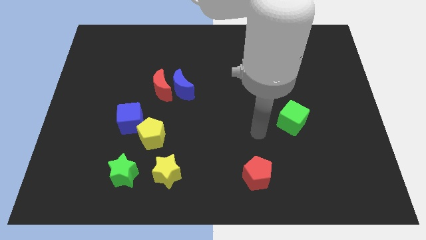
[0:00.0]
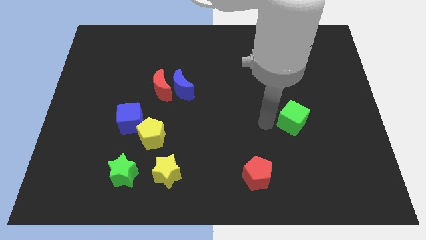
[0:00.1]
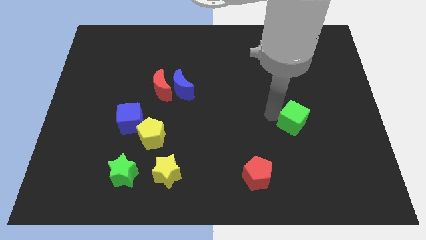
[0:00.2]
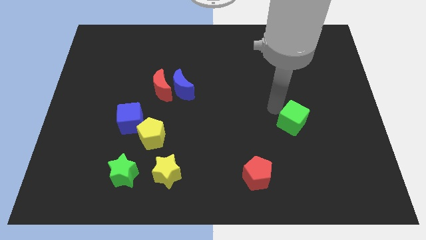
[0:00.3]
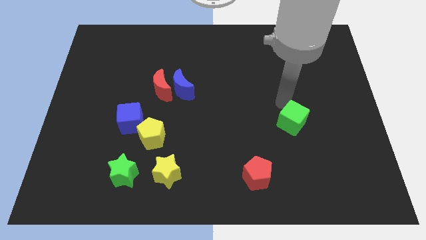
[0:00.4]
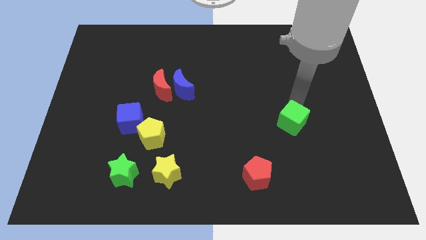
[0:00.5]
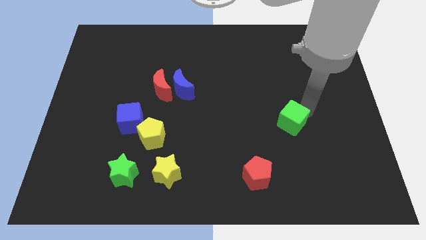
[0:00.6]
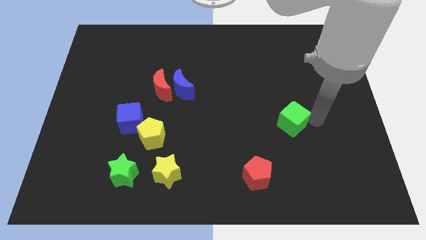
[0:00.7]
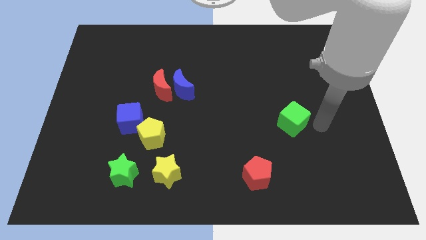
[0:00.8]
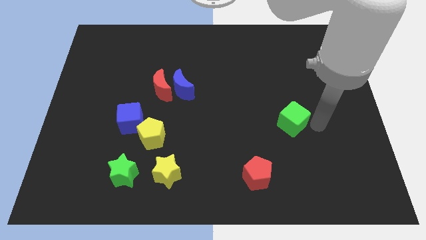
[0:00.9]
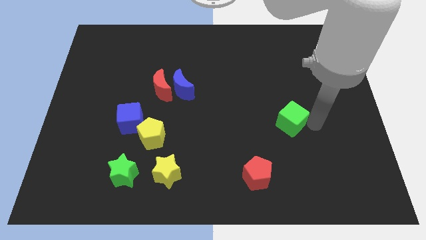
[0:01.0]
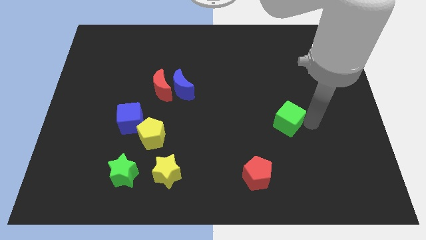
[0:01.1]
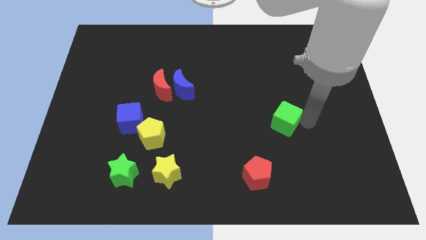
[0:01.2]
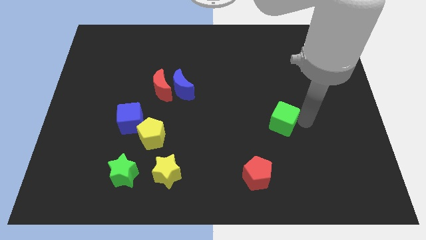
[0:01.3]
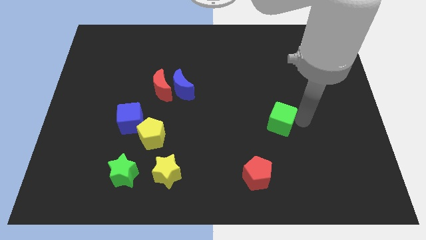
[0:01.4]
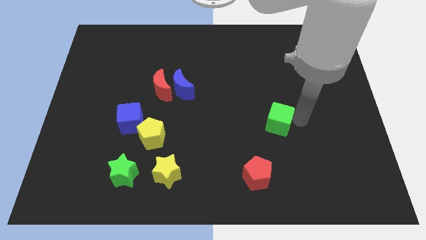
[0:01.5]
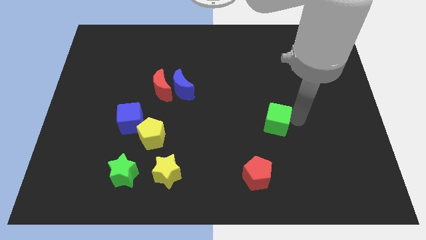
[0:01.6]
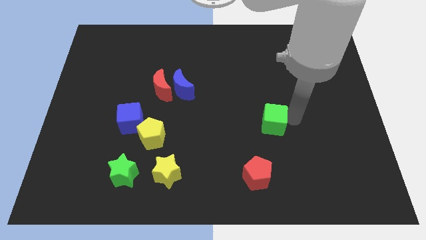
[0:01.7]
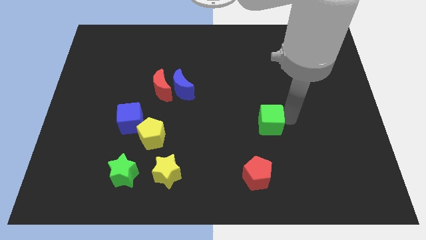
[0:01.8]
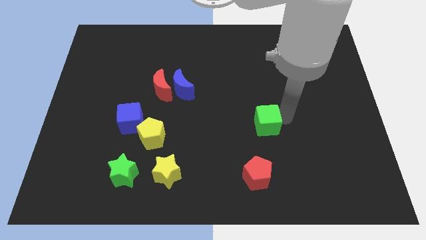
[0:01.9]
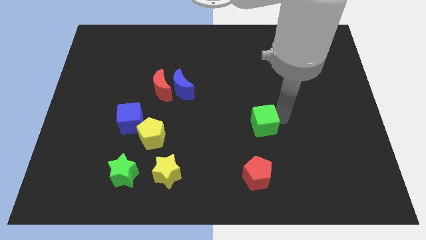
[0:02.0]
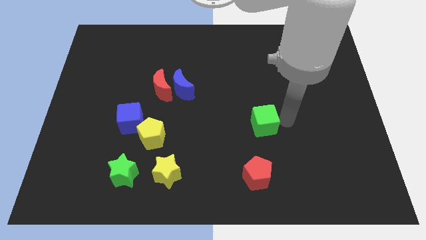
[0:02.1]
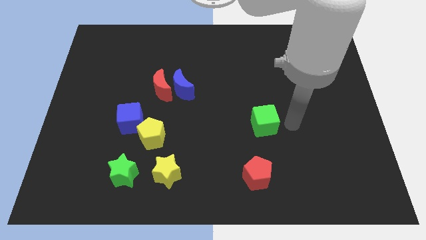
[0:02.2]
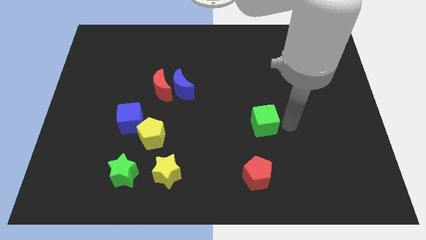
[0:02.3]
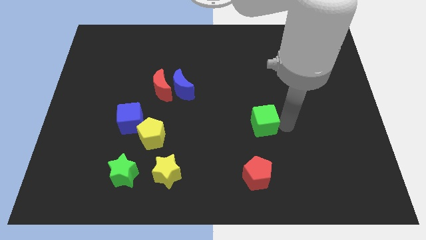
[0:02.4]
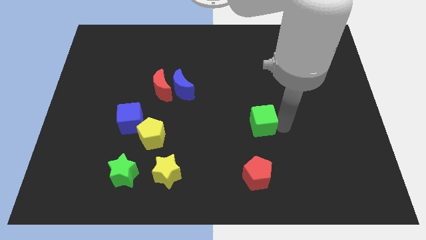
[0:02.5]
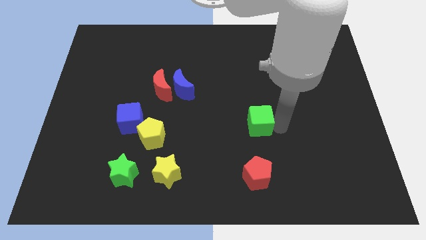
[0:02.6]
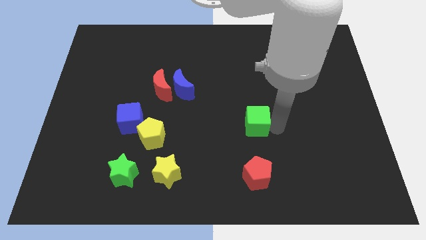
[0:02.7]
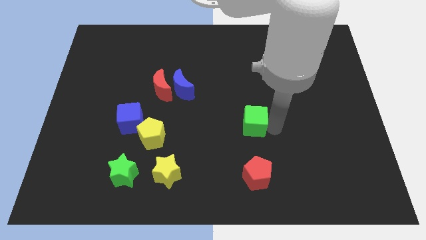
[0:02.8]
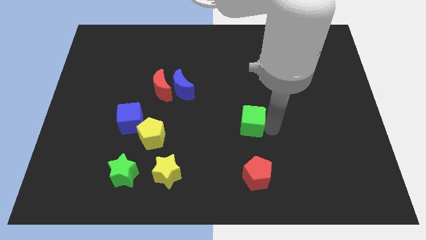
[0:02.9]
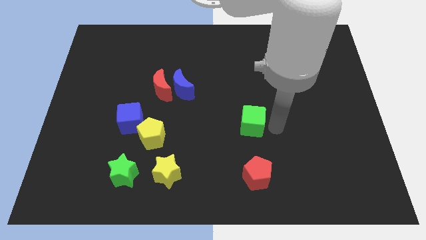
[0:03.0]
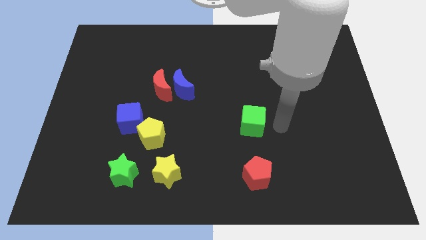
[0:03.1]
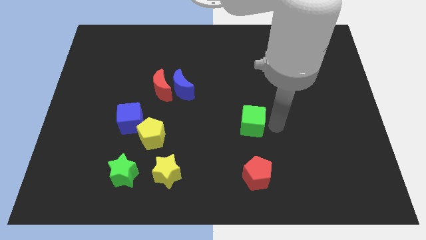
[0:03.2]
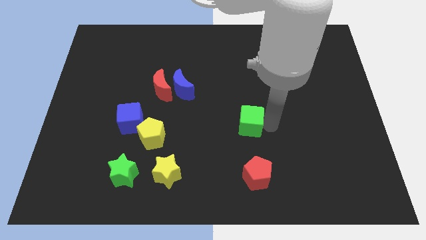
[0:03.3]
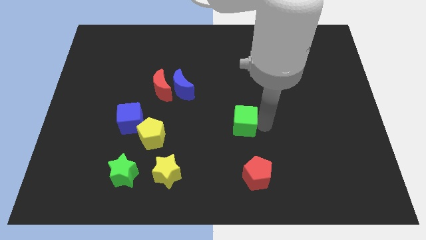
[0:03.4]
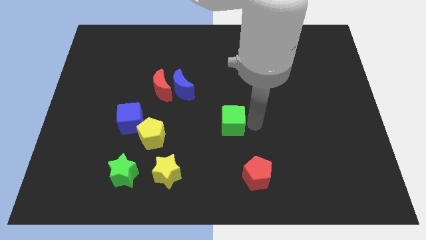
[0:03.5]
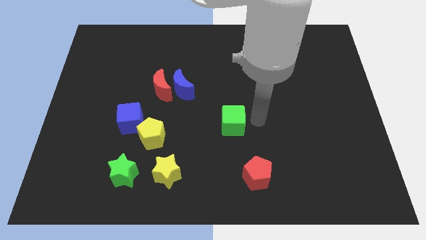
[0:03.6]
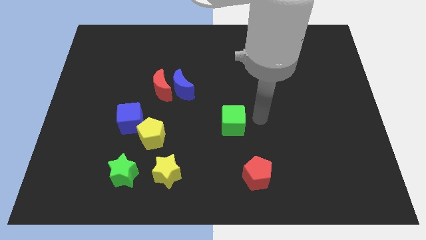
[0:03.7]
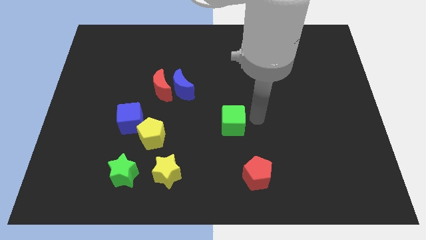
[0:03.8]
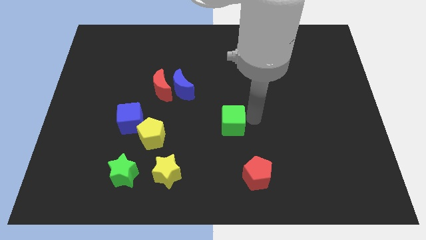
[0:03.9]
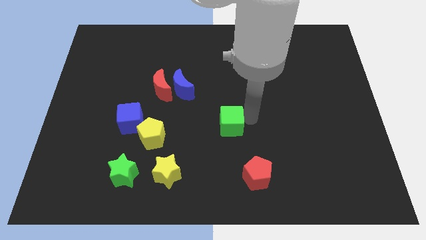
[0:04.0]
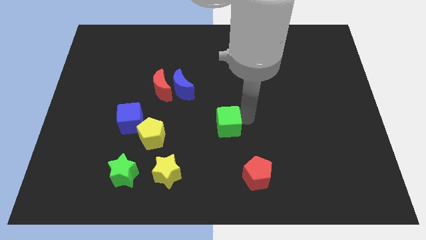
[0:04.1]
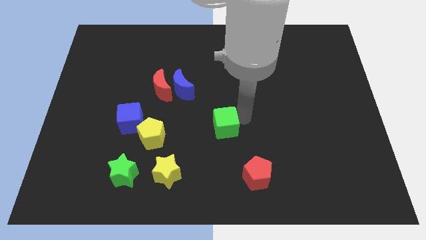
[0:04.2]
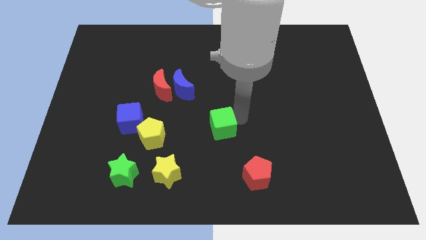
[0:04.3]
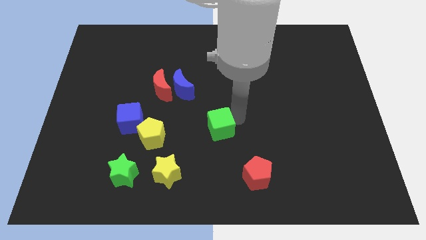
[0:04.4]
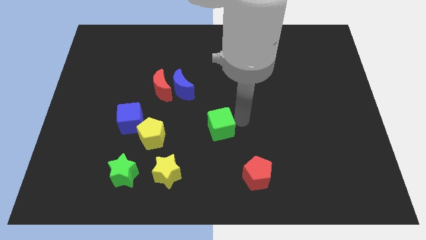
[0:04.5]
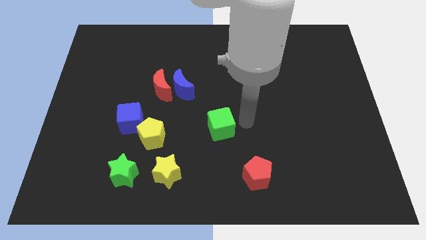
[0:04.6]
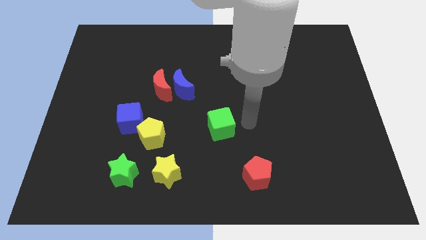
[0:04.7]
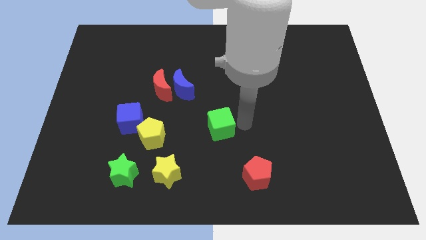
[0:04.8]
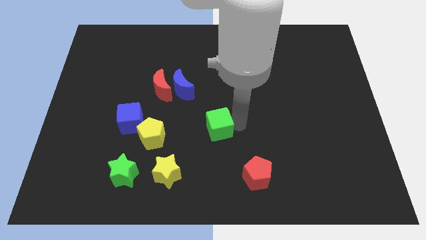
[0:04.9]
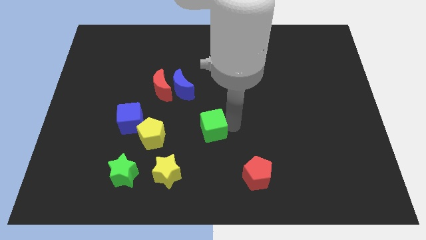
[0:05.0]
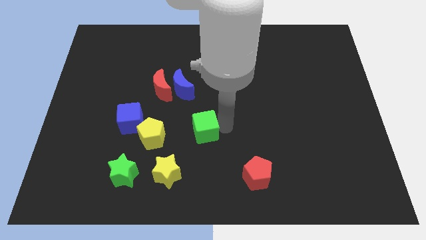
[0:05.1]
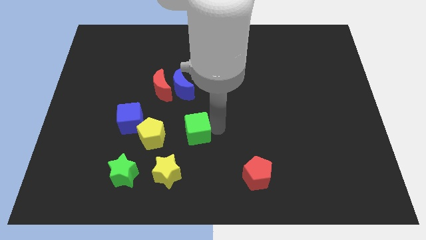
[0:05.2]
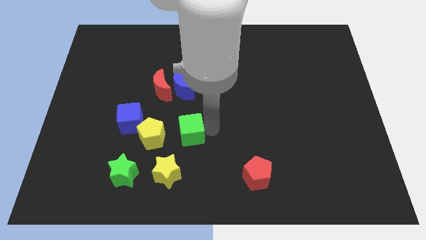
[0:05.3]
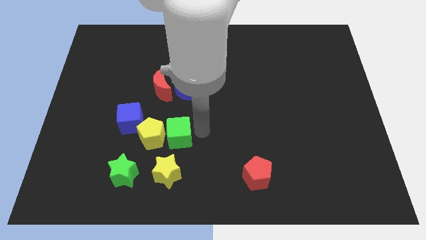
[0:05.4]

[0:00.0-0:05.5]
slide the green cube next to the yellow pentagon

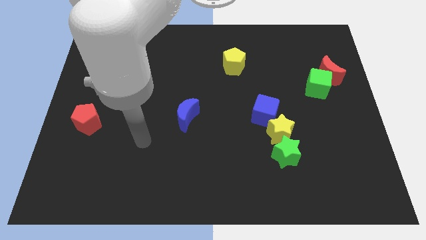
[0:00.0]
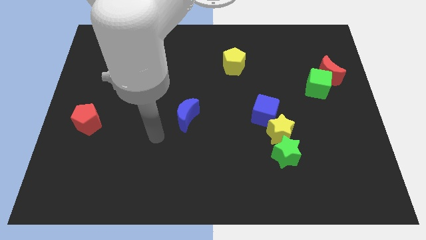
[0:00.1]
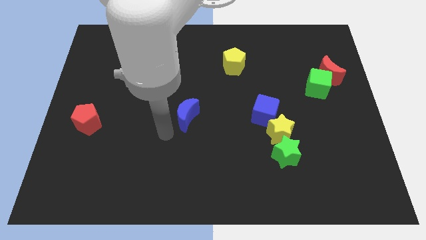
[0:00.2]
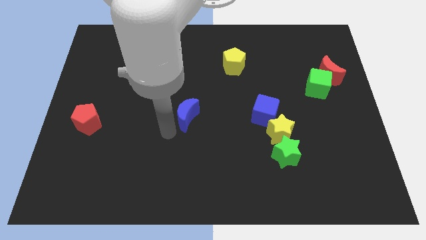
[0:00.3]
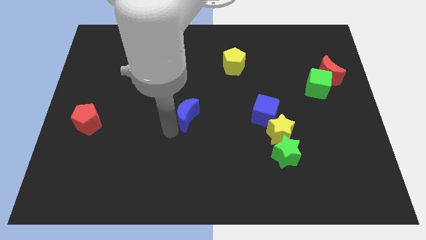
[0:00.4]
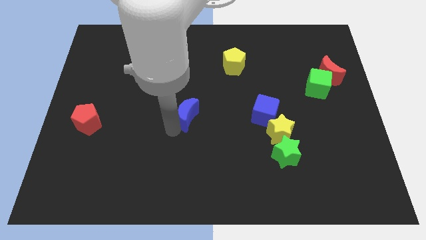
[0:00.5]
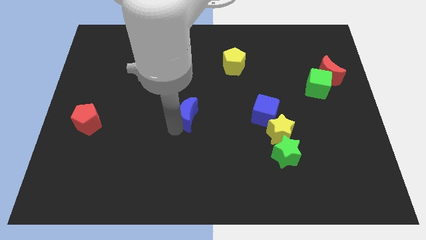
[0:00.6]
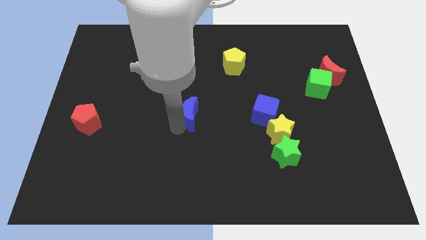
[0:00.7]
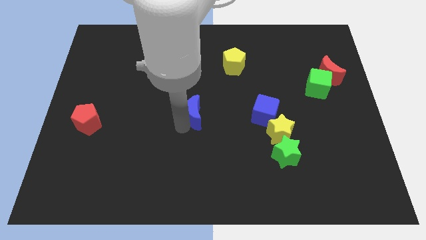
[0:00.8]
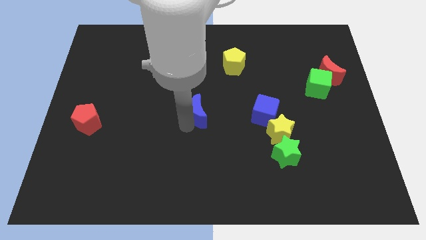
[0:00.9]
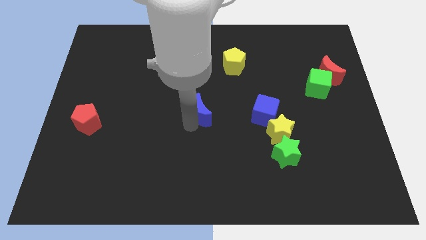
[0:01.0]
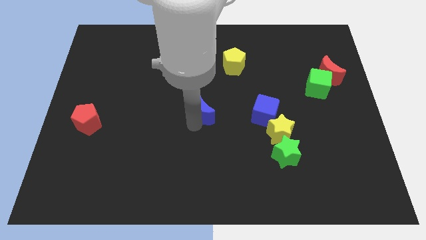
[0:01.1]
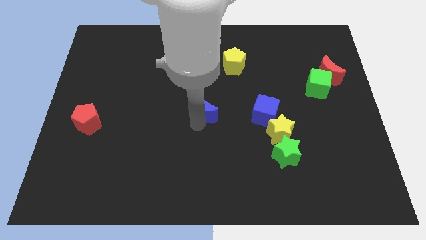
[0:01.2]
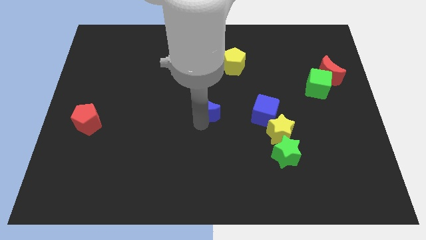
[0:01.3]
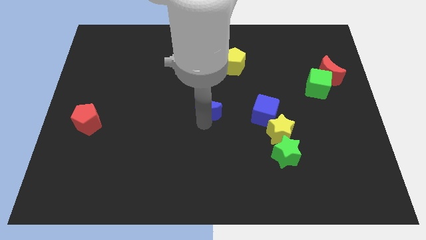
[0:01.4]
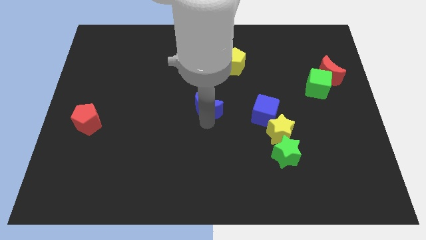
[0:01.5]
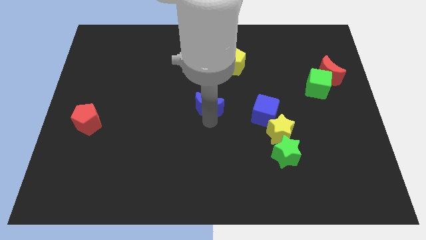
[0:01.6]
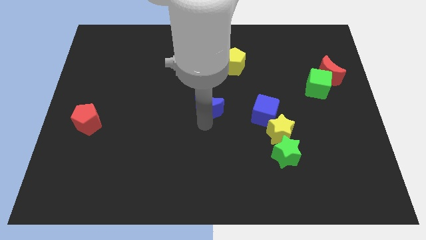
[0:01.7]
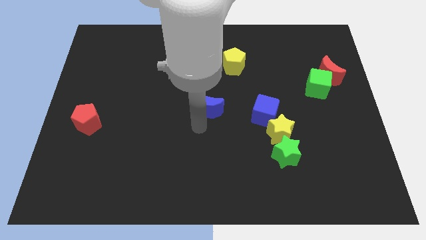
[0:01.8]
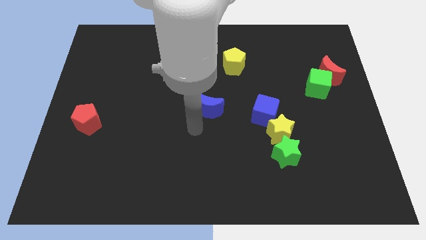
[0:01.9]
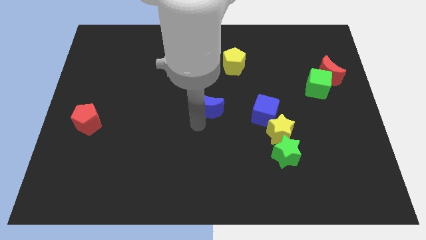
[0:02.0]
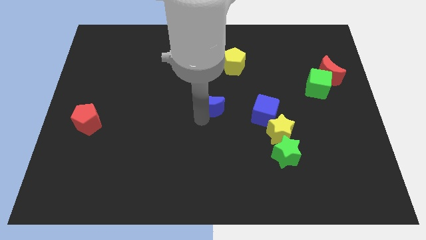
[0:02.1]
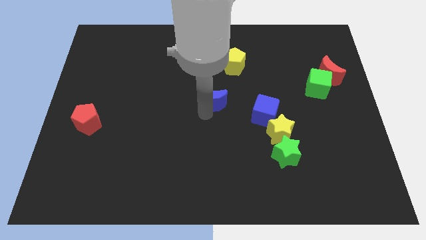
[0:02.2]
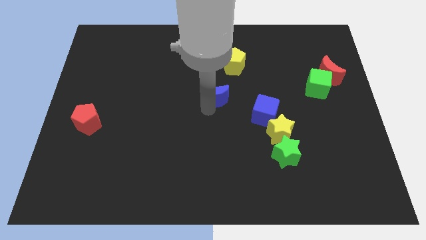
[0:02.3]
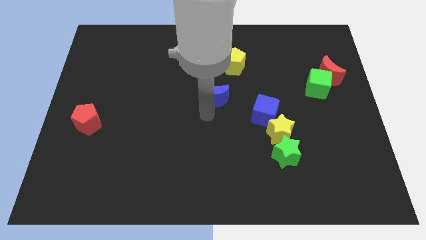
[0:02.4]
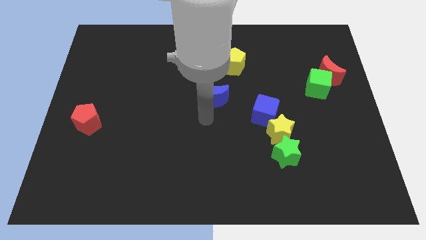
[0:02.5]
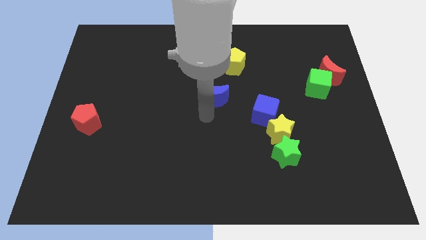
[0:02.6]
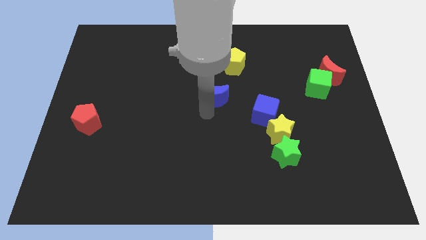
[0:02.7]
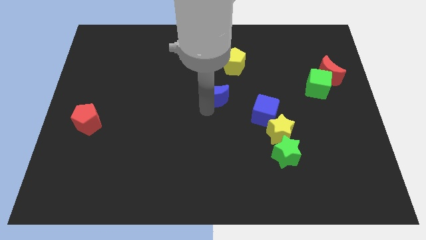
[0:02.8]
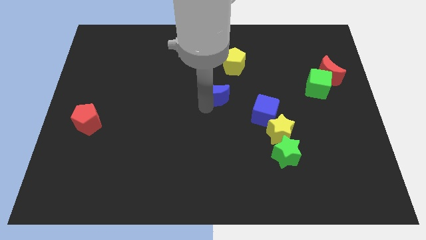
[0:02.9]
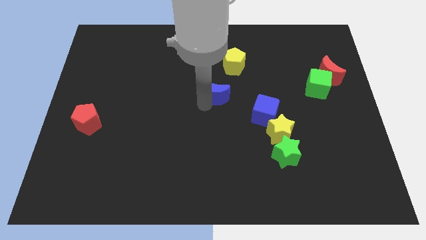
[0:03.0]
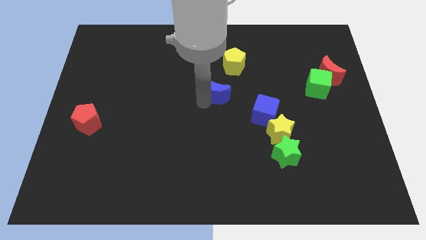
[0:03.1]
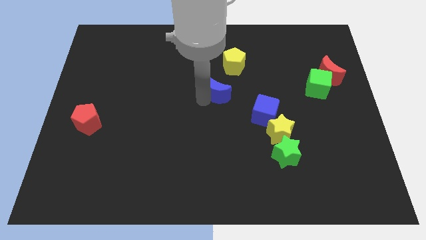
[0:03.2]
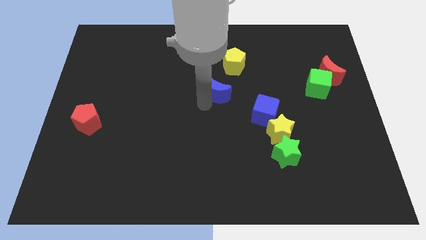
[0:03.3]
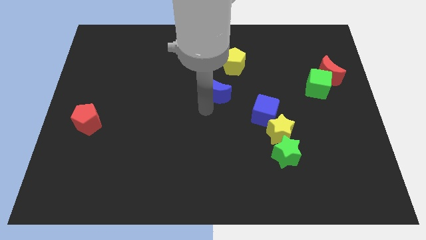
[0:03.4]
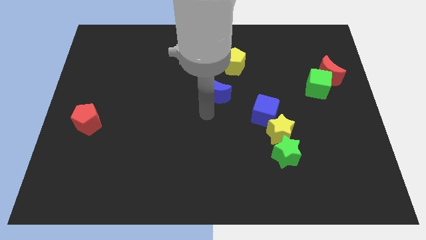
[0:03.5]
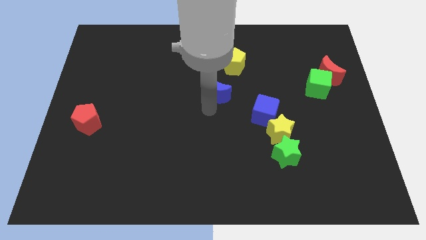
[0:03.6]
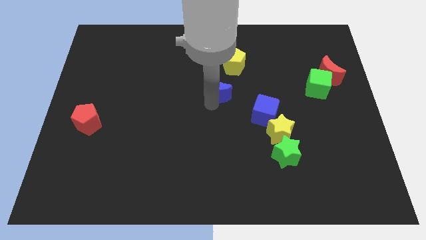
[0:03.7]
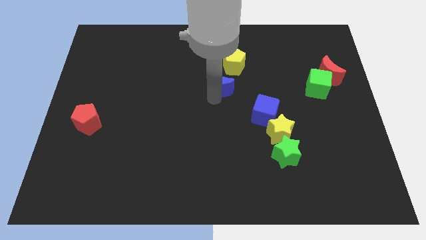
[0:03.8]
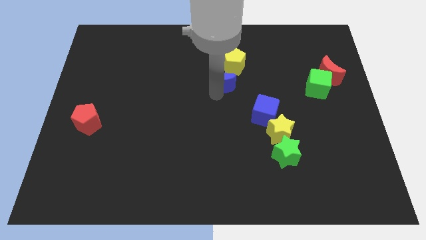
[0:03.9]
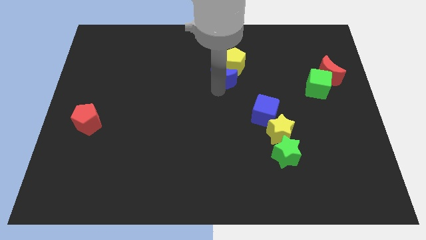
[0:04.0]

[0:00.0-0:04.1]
put the blue moon next to the yellow pentagon
